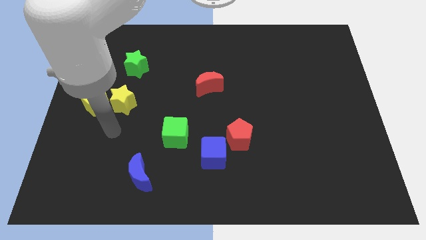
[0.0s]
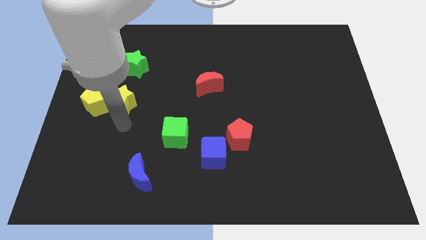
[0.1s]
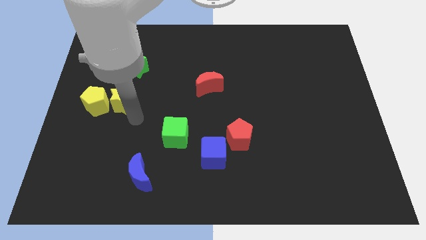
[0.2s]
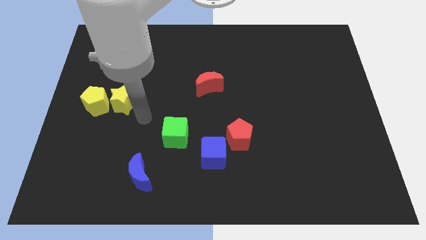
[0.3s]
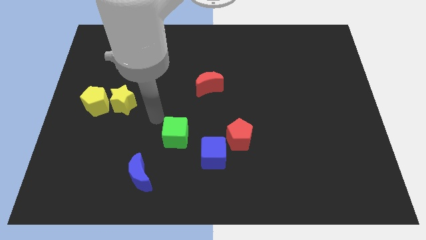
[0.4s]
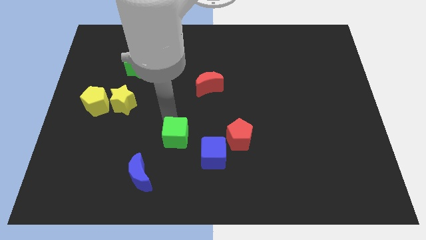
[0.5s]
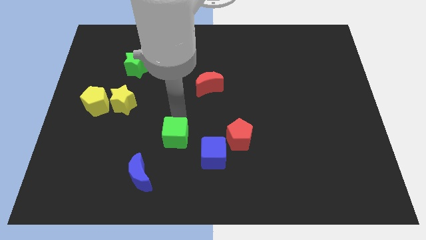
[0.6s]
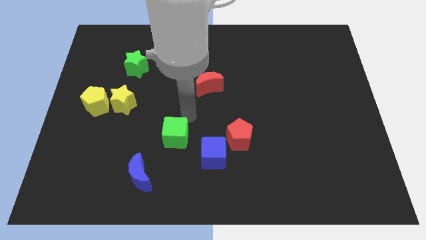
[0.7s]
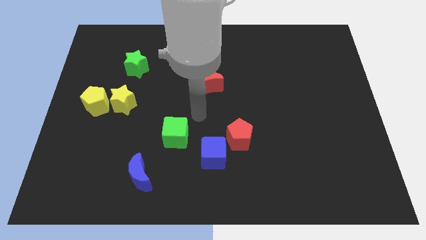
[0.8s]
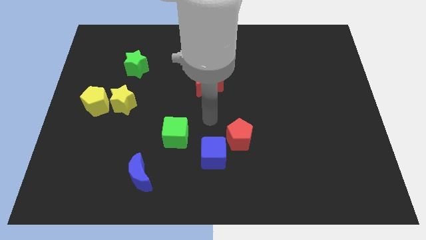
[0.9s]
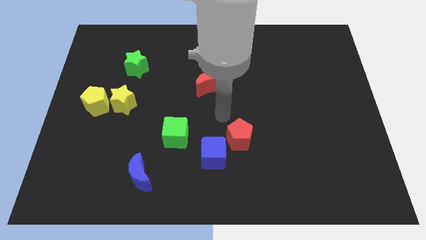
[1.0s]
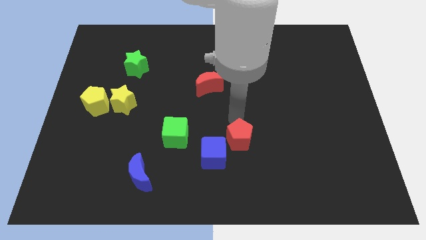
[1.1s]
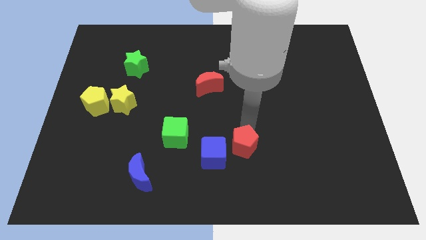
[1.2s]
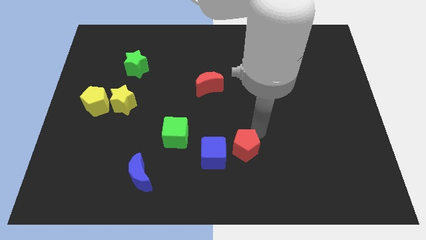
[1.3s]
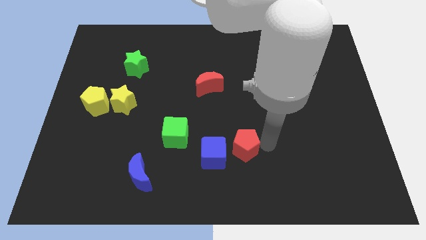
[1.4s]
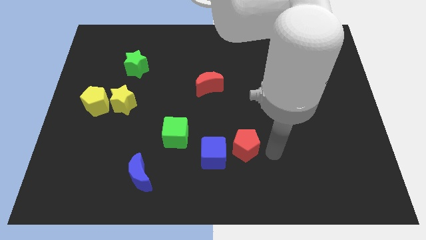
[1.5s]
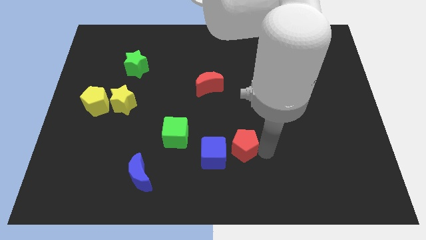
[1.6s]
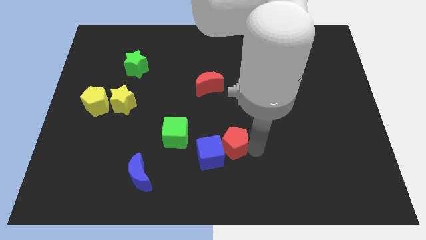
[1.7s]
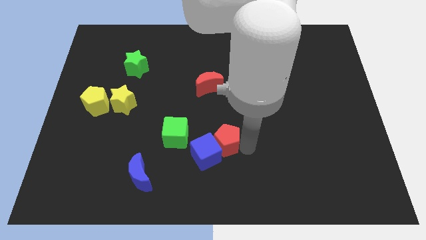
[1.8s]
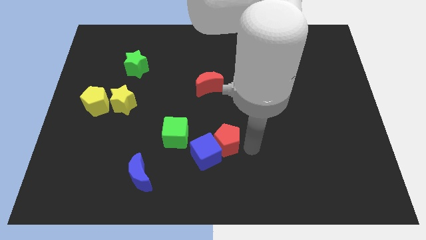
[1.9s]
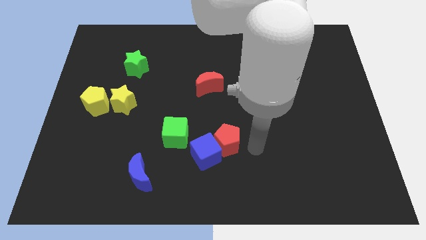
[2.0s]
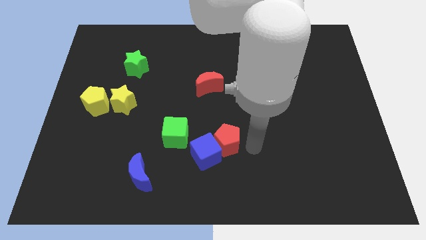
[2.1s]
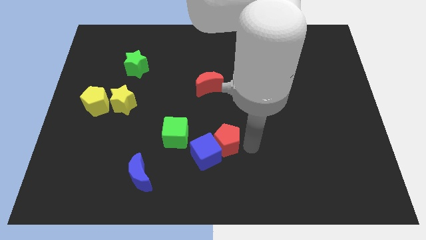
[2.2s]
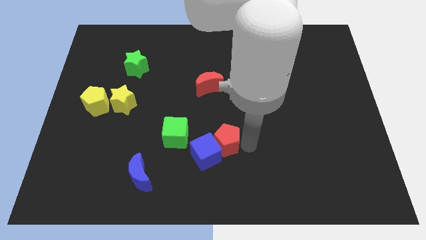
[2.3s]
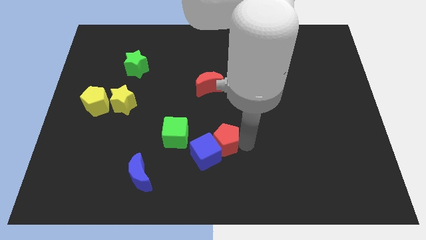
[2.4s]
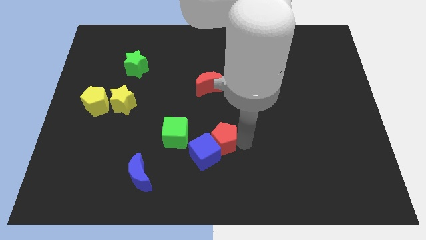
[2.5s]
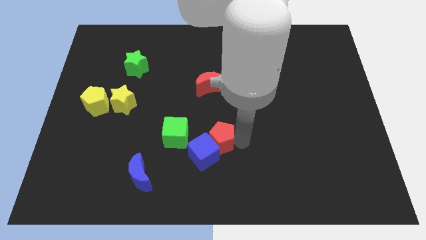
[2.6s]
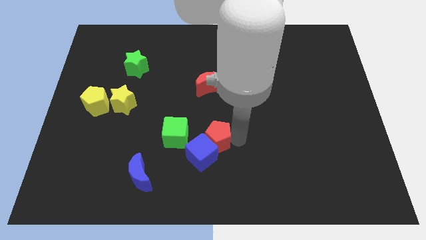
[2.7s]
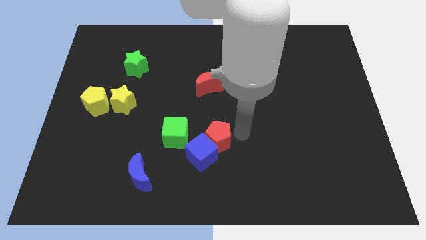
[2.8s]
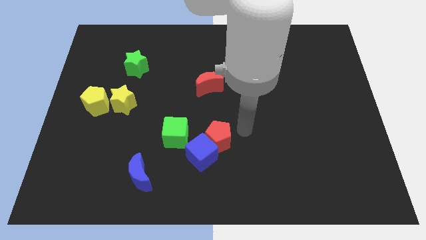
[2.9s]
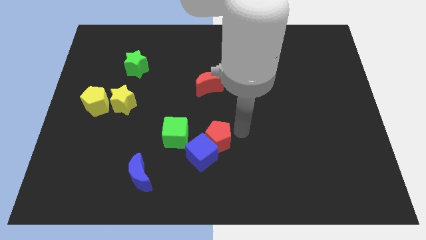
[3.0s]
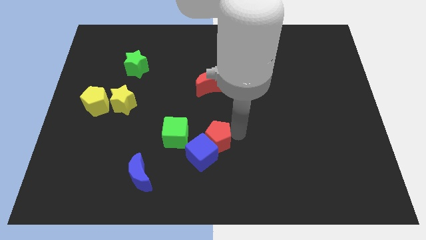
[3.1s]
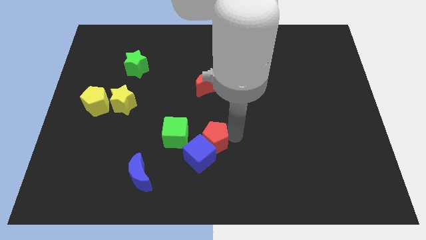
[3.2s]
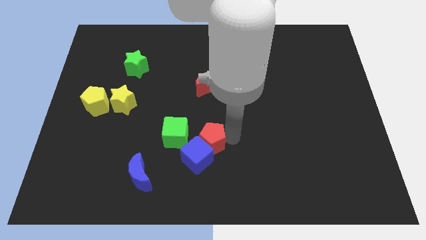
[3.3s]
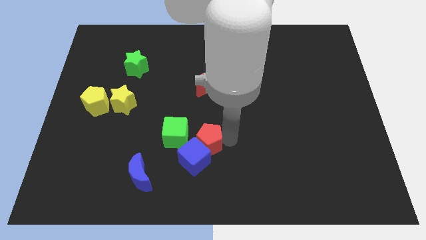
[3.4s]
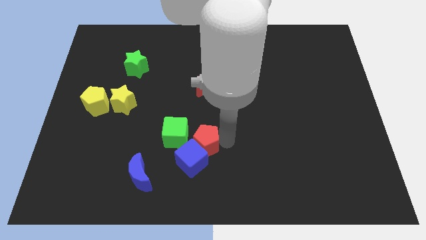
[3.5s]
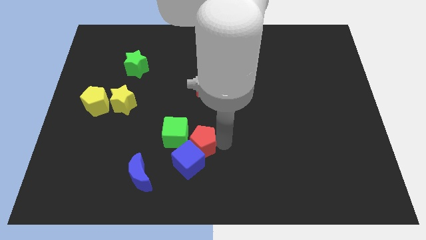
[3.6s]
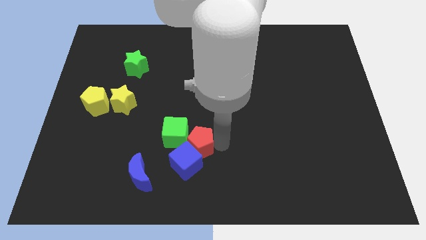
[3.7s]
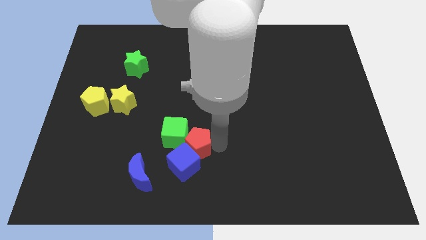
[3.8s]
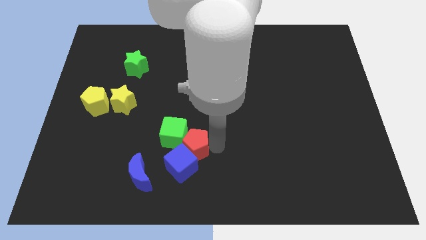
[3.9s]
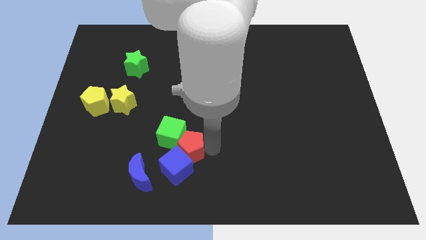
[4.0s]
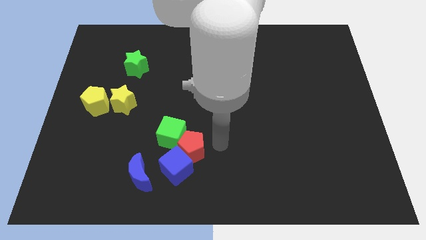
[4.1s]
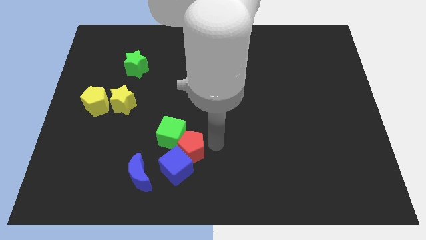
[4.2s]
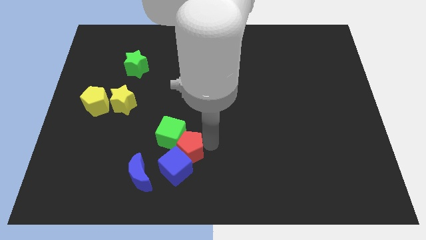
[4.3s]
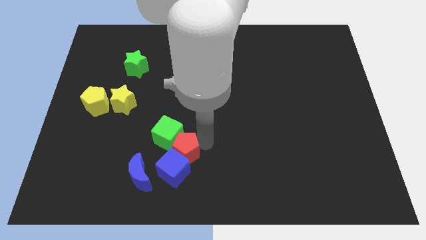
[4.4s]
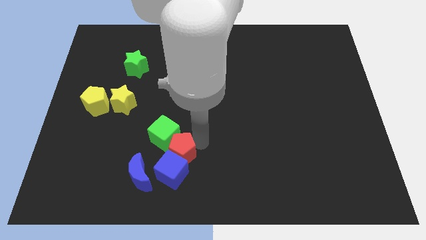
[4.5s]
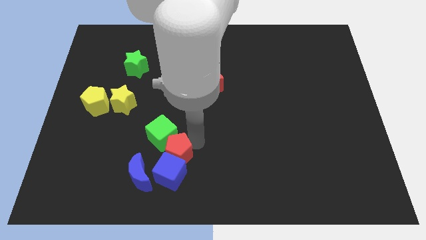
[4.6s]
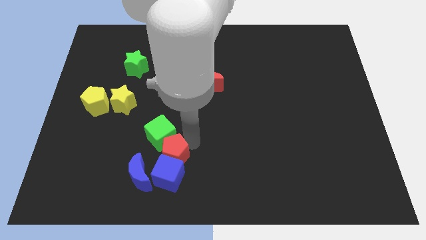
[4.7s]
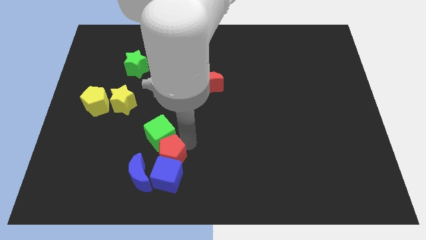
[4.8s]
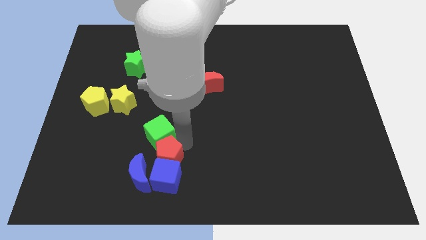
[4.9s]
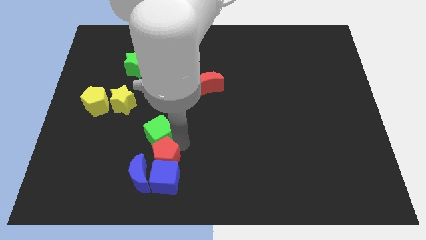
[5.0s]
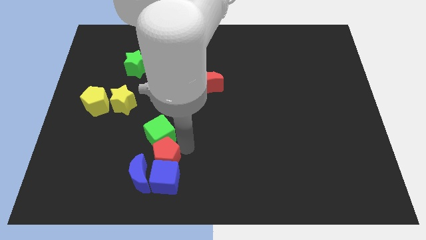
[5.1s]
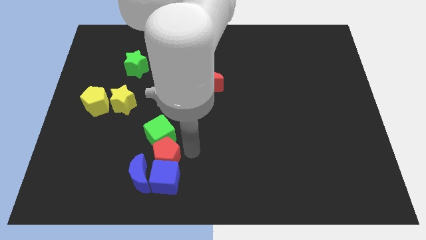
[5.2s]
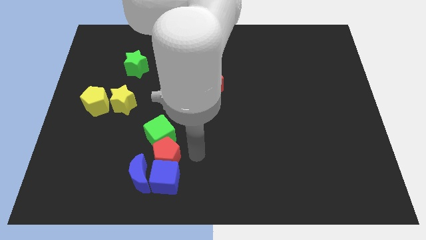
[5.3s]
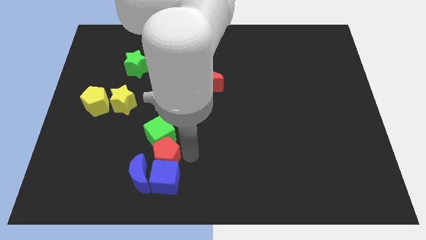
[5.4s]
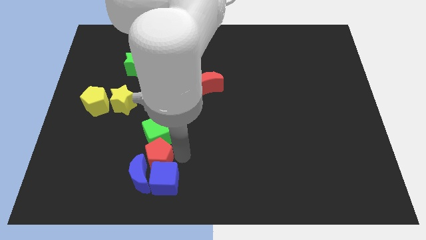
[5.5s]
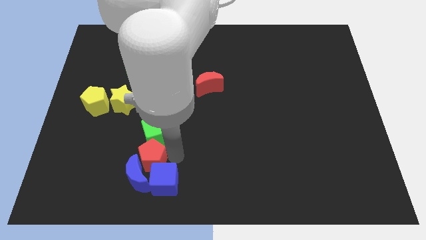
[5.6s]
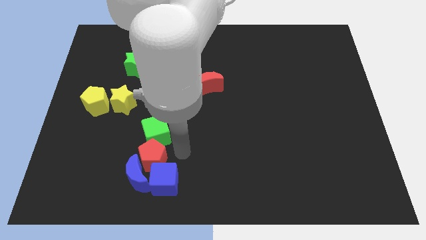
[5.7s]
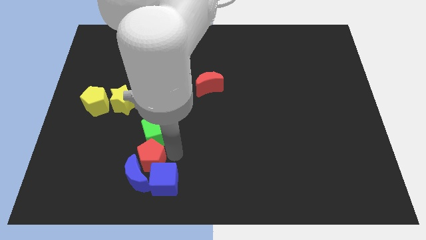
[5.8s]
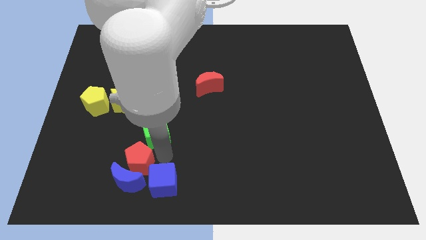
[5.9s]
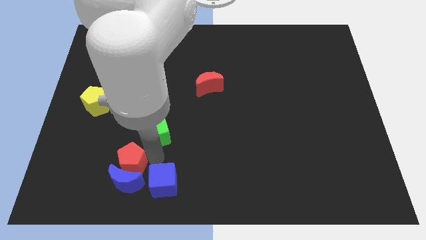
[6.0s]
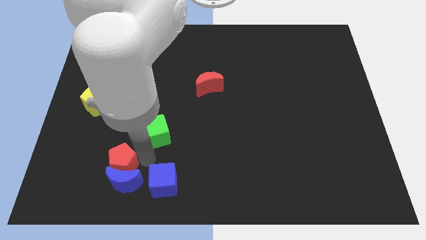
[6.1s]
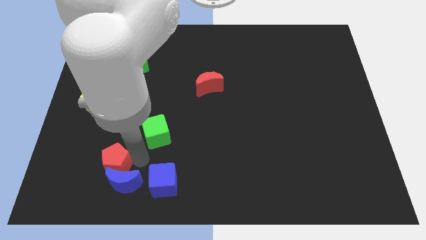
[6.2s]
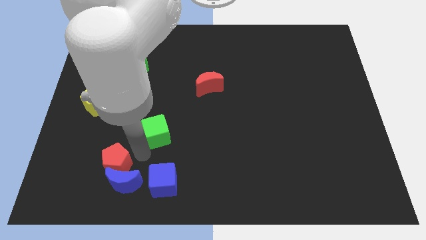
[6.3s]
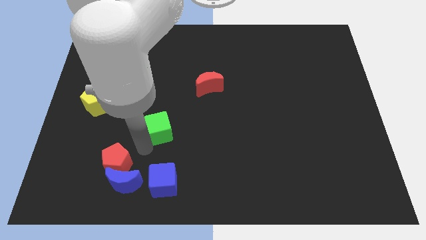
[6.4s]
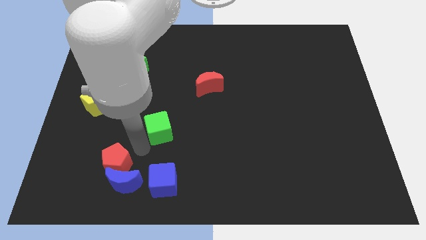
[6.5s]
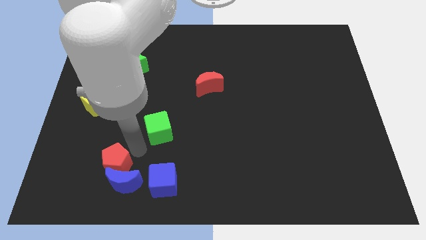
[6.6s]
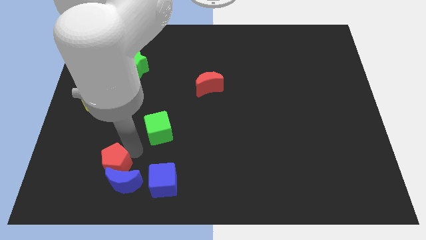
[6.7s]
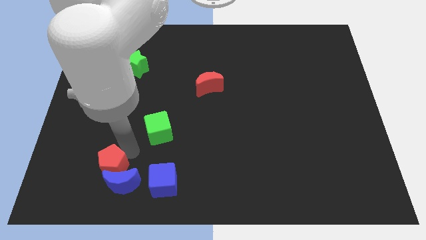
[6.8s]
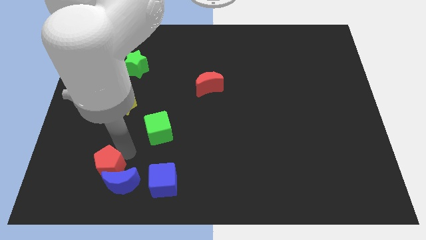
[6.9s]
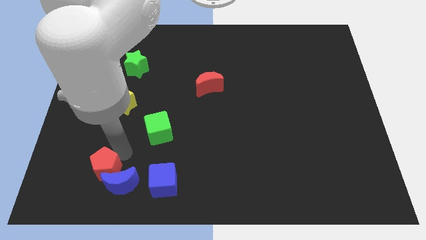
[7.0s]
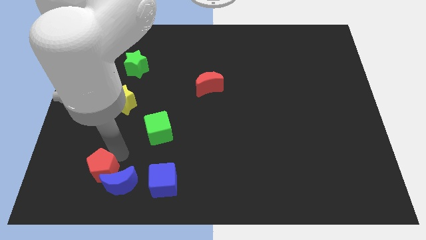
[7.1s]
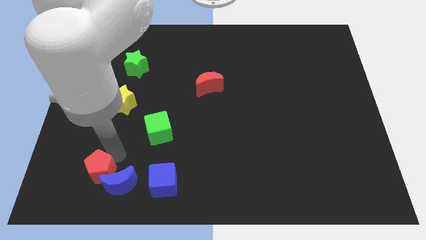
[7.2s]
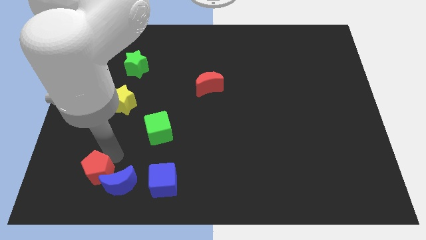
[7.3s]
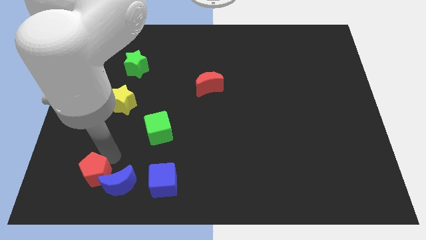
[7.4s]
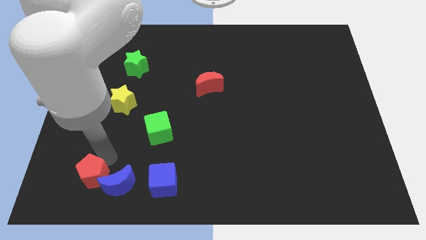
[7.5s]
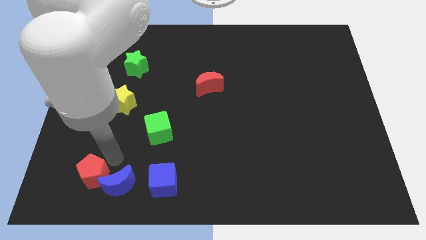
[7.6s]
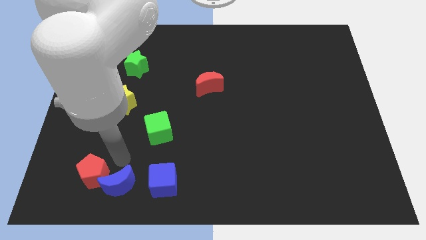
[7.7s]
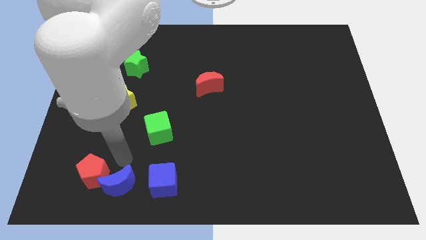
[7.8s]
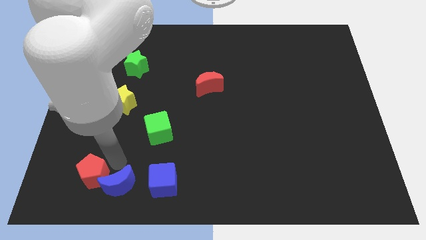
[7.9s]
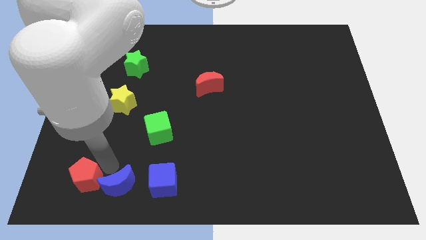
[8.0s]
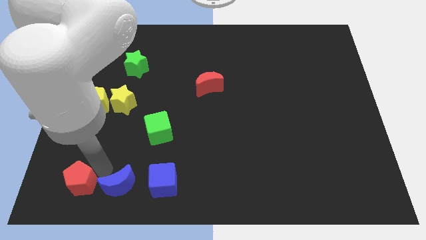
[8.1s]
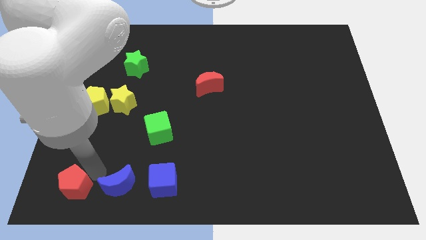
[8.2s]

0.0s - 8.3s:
put the red pentagon to the bottom left
